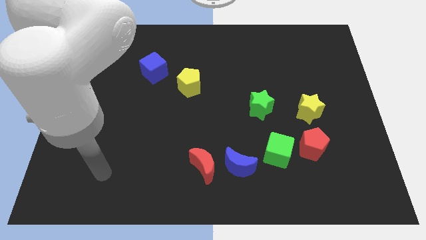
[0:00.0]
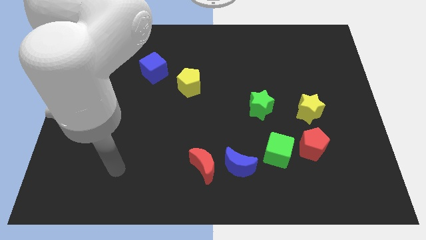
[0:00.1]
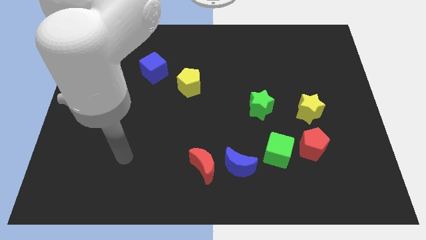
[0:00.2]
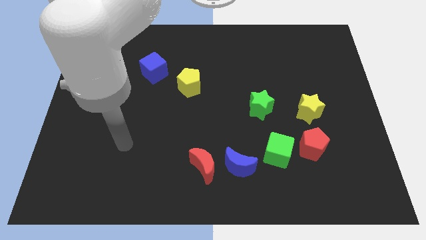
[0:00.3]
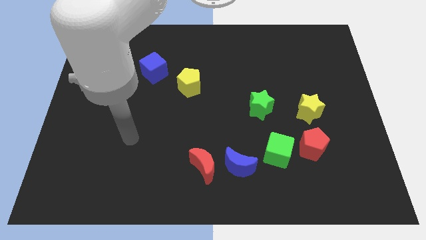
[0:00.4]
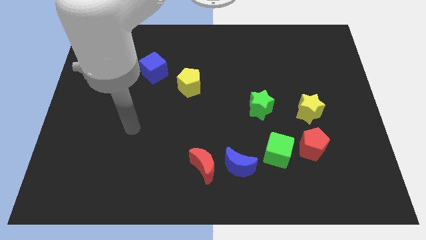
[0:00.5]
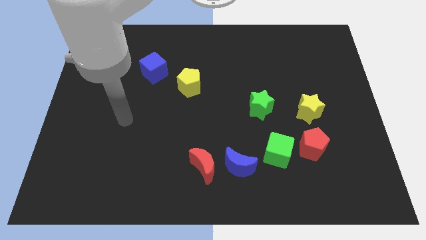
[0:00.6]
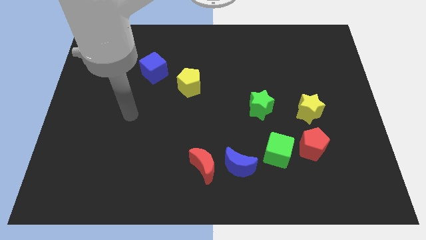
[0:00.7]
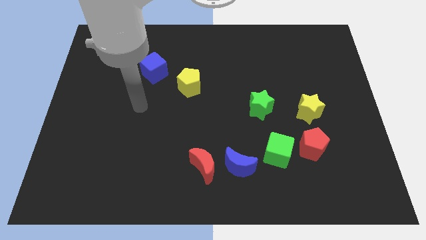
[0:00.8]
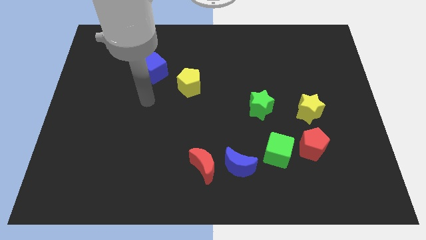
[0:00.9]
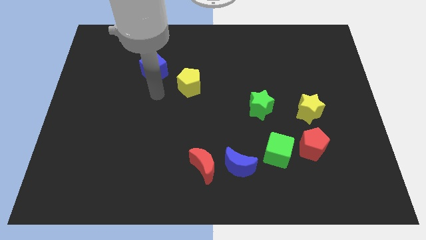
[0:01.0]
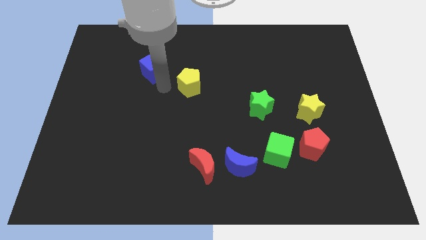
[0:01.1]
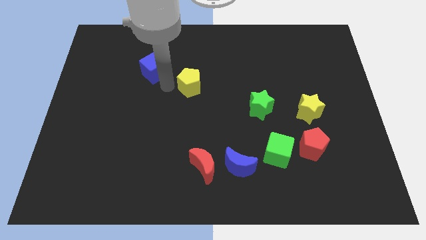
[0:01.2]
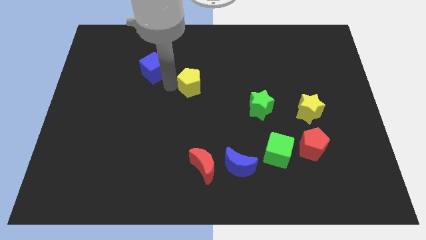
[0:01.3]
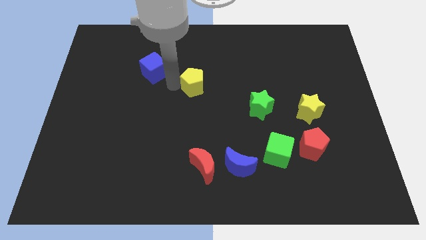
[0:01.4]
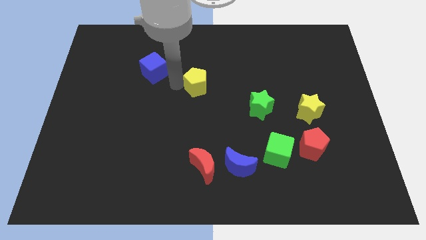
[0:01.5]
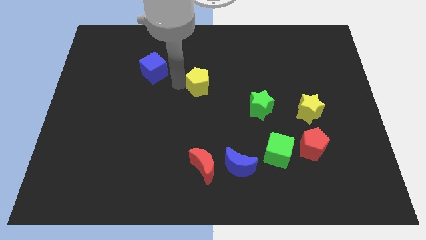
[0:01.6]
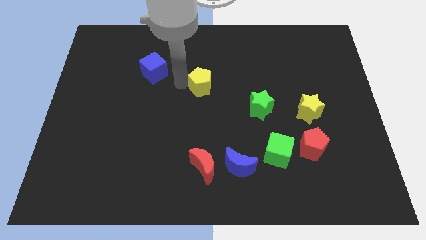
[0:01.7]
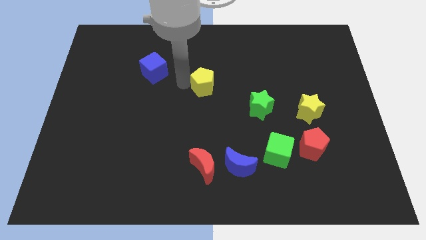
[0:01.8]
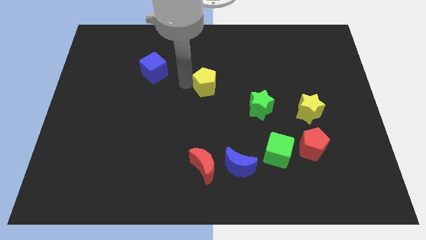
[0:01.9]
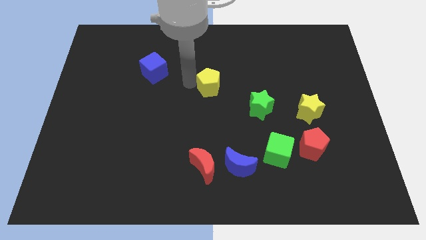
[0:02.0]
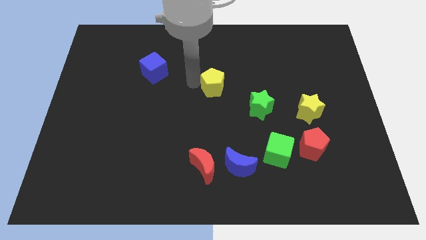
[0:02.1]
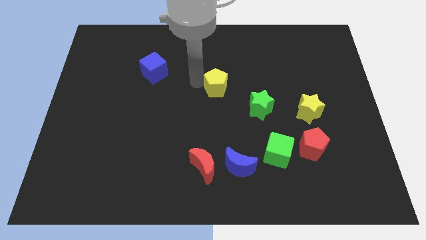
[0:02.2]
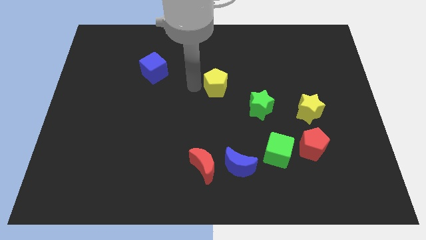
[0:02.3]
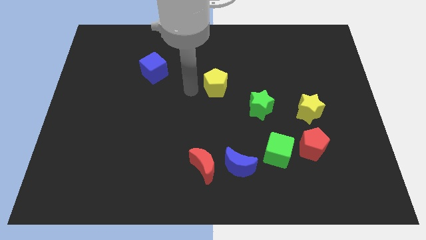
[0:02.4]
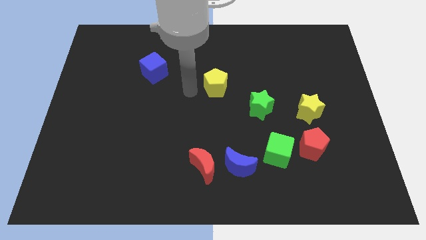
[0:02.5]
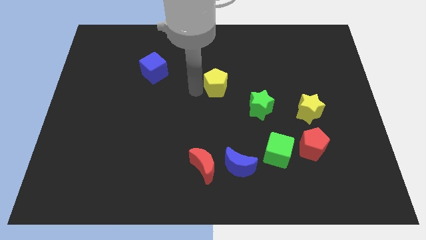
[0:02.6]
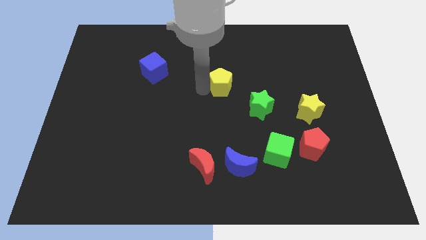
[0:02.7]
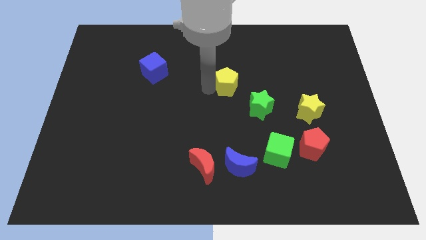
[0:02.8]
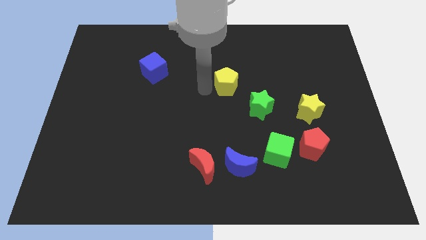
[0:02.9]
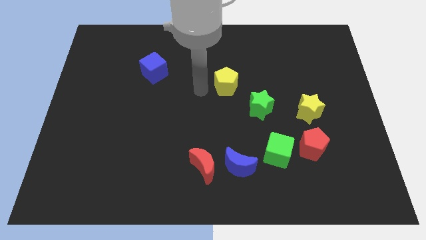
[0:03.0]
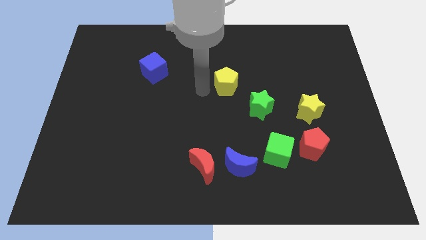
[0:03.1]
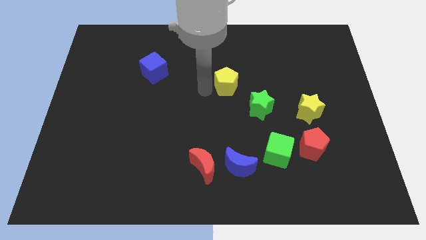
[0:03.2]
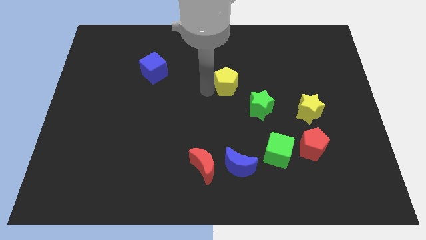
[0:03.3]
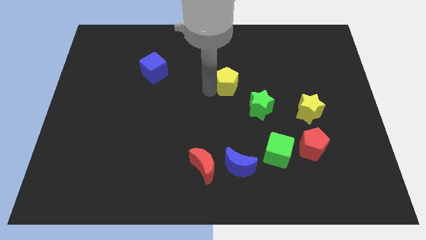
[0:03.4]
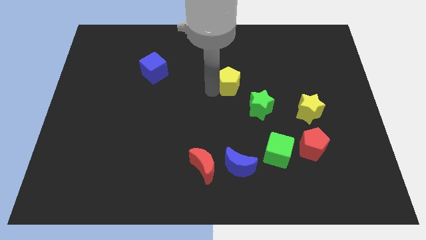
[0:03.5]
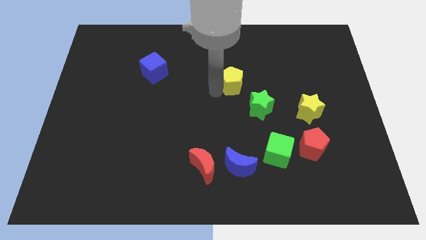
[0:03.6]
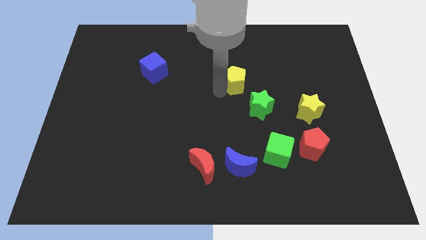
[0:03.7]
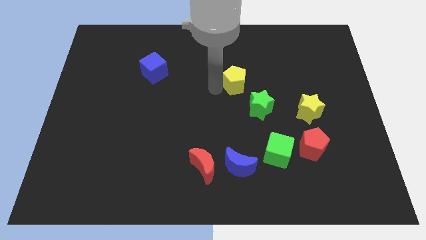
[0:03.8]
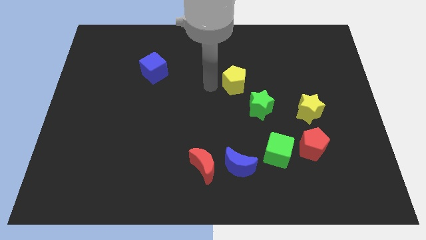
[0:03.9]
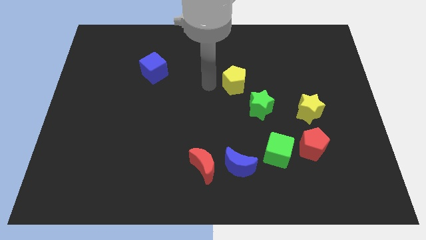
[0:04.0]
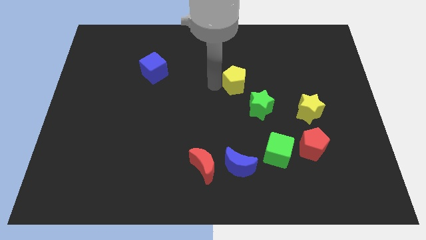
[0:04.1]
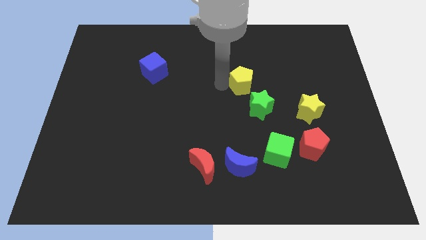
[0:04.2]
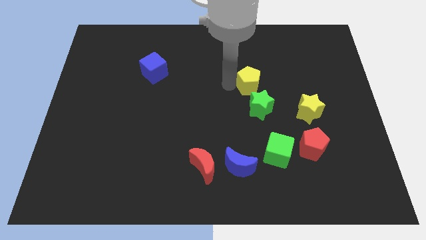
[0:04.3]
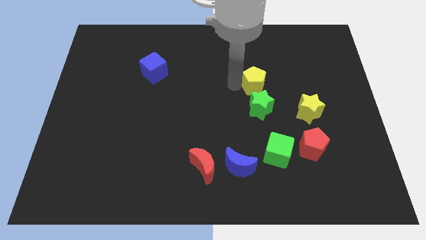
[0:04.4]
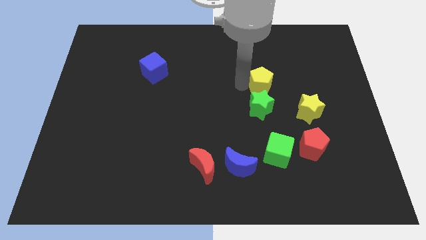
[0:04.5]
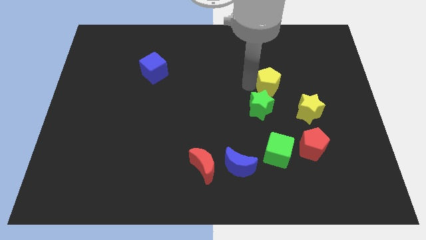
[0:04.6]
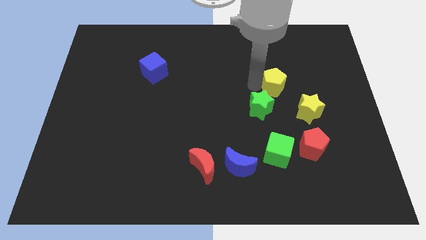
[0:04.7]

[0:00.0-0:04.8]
push the yellow pentagon right

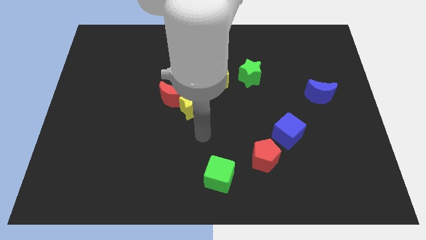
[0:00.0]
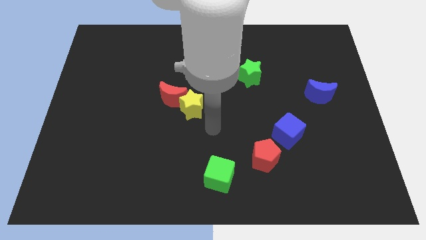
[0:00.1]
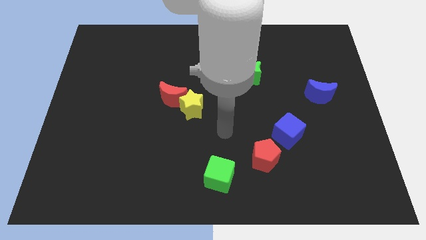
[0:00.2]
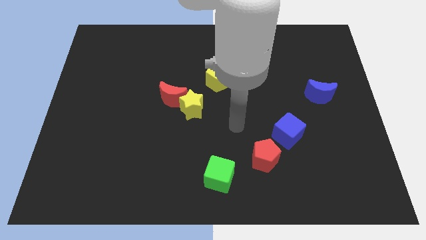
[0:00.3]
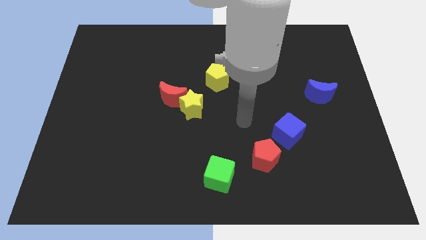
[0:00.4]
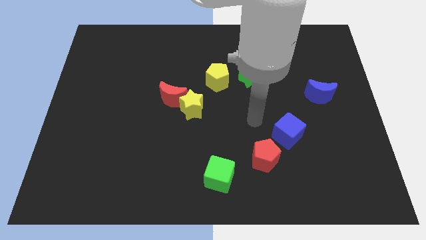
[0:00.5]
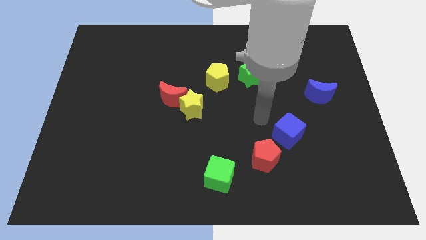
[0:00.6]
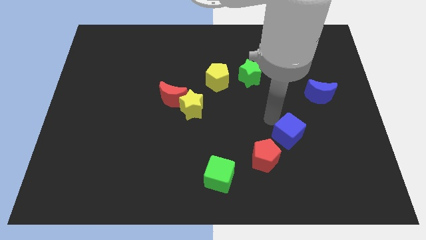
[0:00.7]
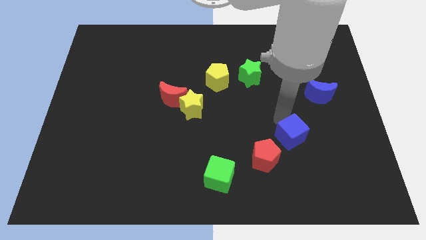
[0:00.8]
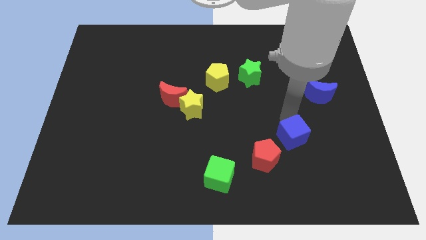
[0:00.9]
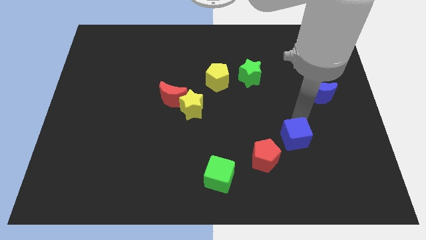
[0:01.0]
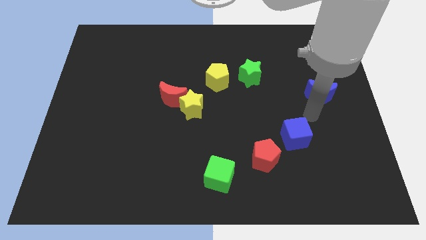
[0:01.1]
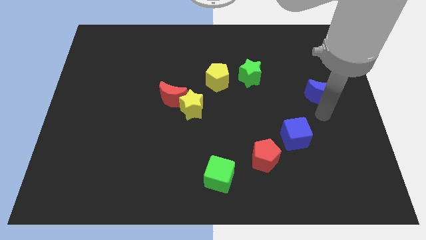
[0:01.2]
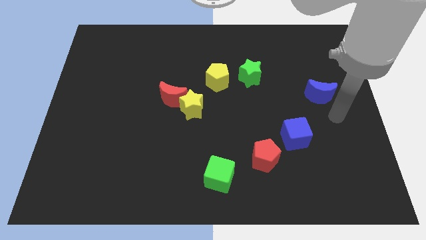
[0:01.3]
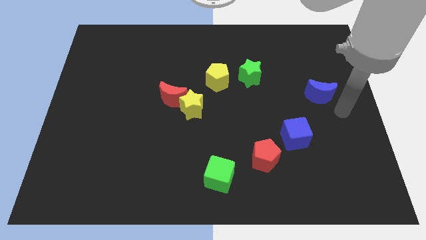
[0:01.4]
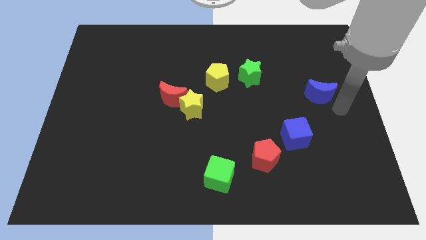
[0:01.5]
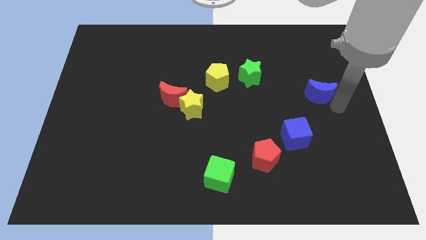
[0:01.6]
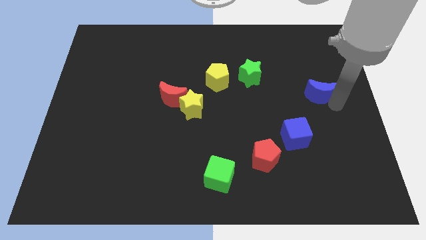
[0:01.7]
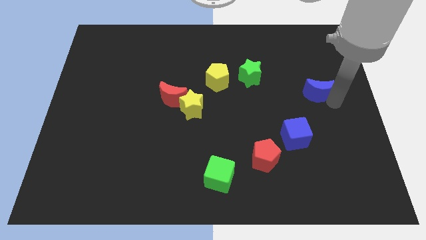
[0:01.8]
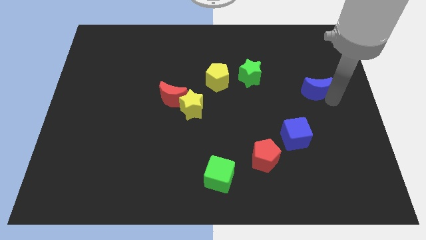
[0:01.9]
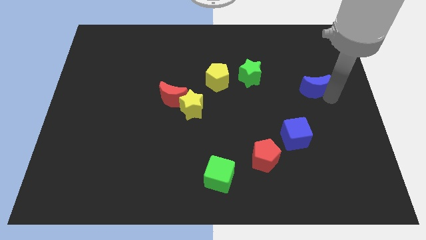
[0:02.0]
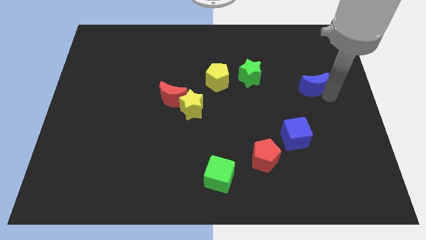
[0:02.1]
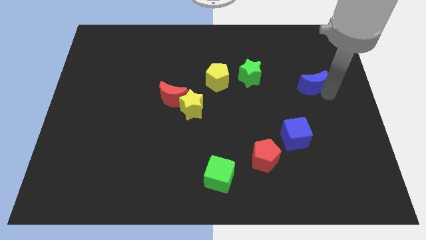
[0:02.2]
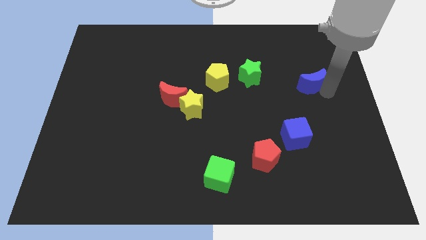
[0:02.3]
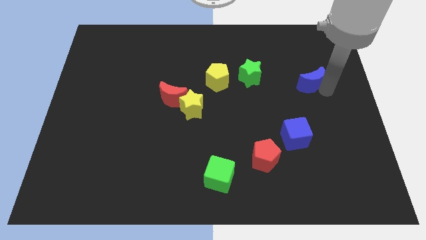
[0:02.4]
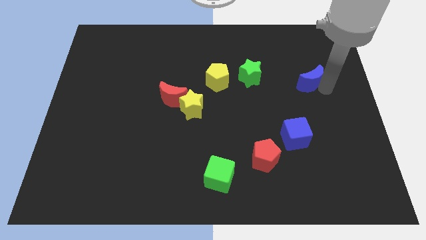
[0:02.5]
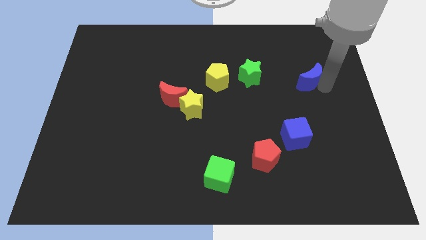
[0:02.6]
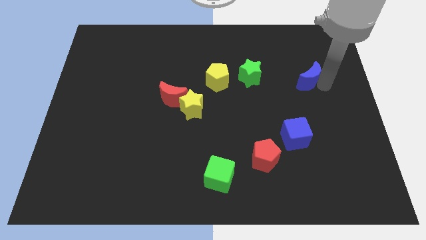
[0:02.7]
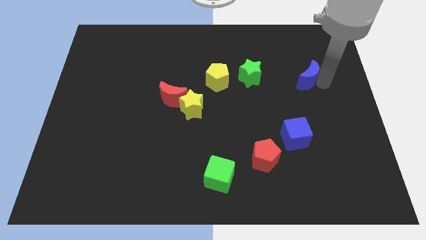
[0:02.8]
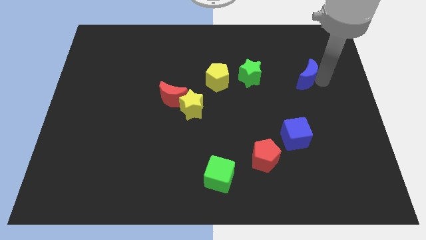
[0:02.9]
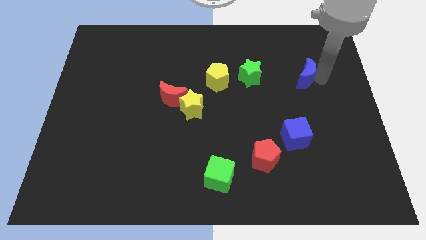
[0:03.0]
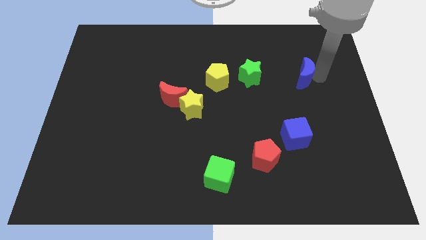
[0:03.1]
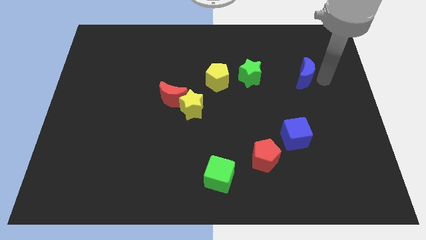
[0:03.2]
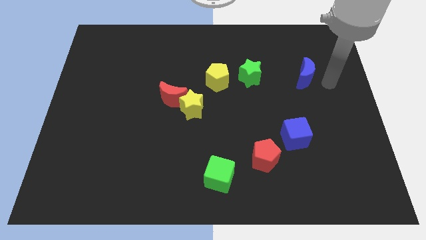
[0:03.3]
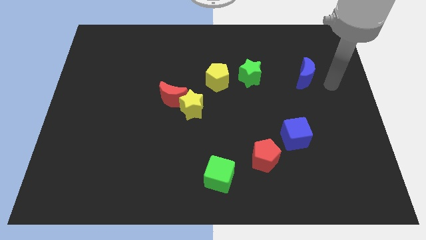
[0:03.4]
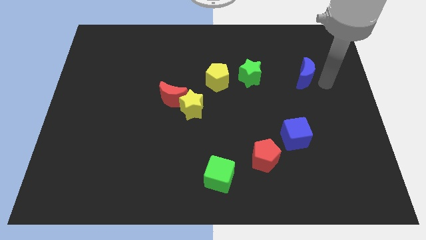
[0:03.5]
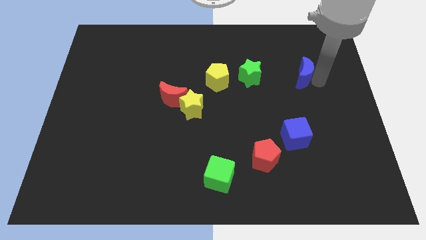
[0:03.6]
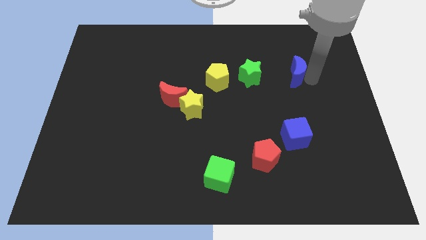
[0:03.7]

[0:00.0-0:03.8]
slightly slide the blue moon up and then to the left
